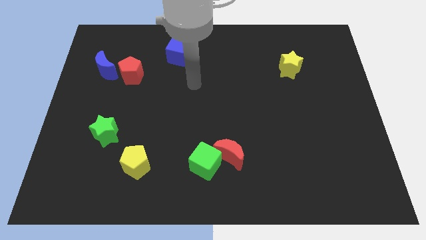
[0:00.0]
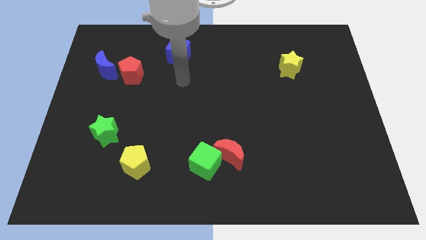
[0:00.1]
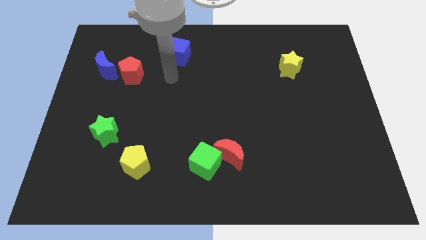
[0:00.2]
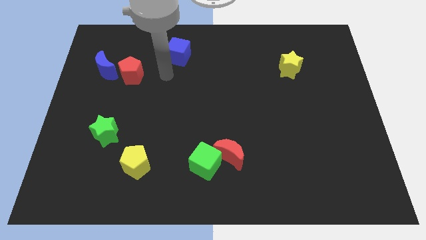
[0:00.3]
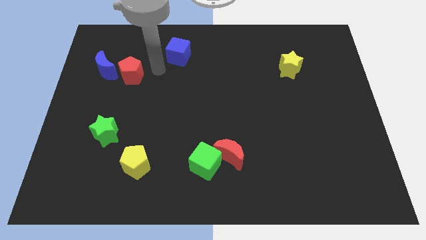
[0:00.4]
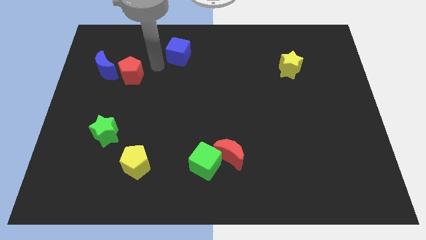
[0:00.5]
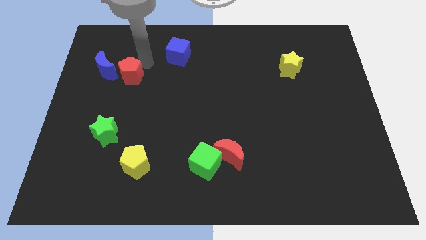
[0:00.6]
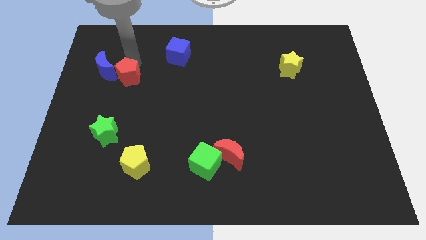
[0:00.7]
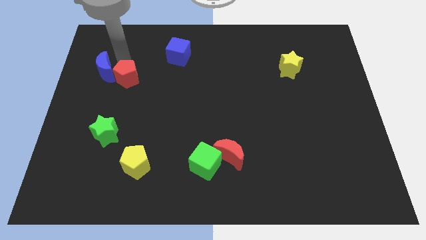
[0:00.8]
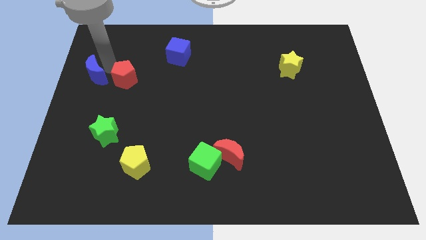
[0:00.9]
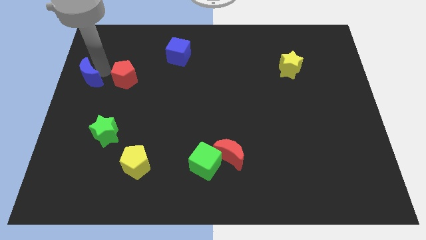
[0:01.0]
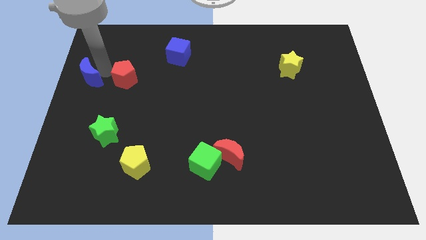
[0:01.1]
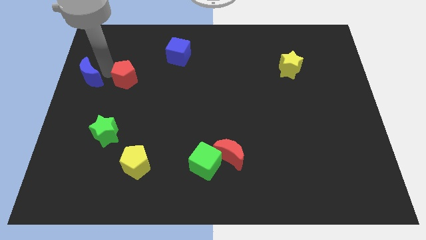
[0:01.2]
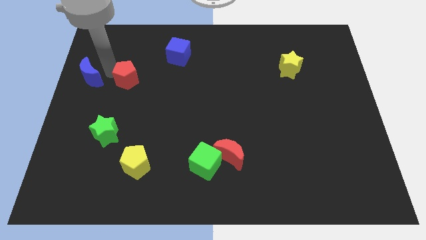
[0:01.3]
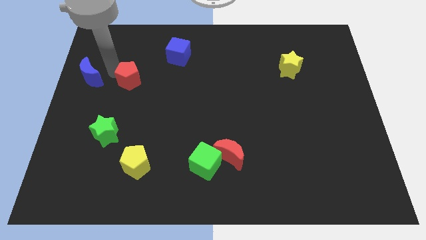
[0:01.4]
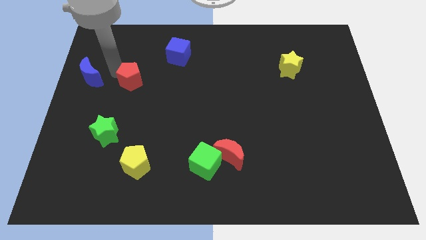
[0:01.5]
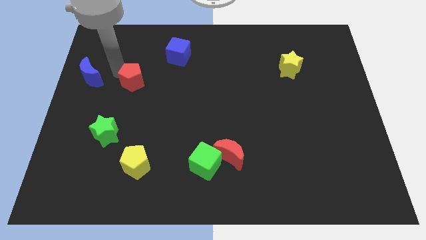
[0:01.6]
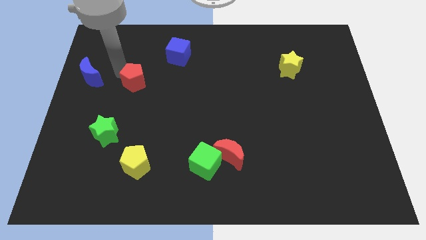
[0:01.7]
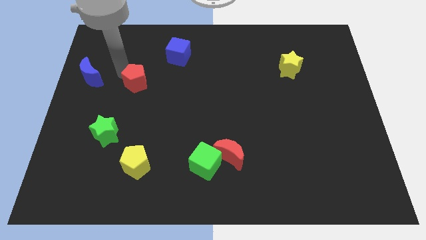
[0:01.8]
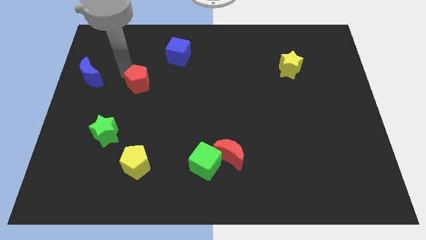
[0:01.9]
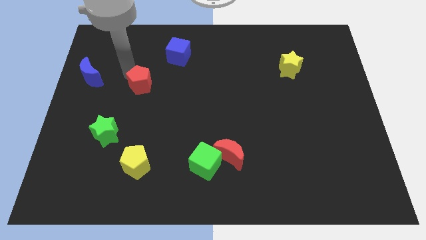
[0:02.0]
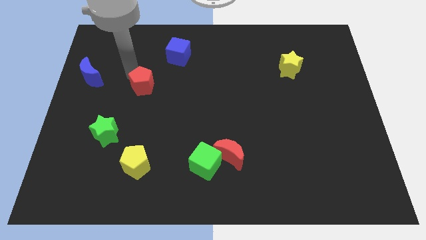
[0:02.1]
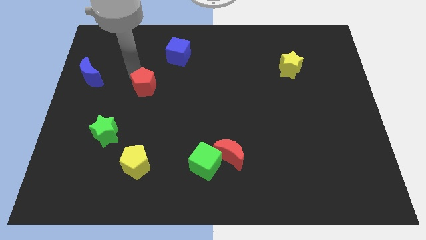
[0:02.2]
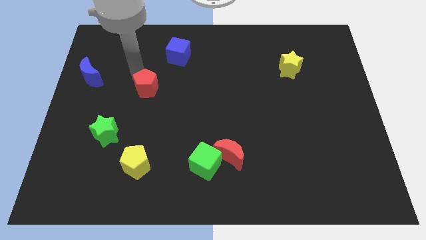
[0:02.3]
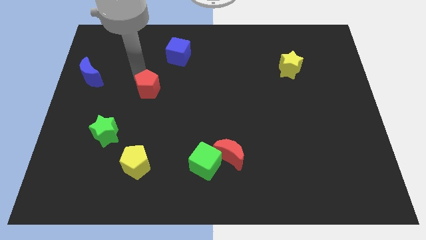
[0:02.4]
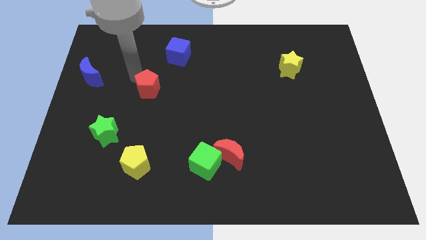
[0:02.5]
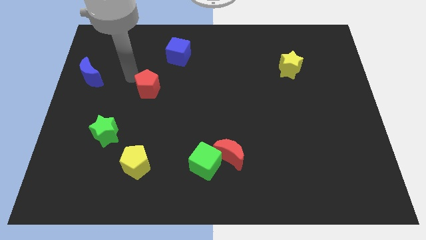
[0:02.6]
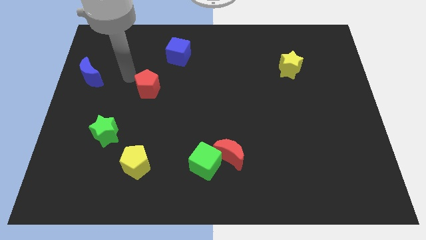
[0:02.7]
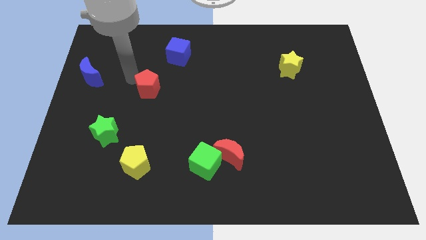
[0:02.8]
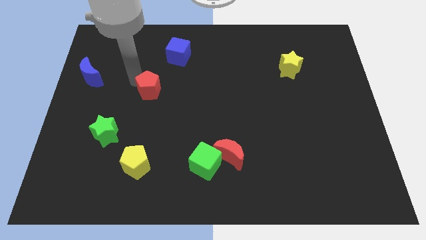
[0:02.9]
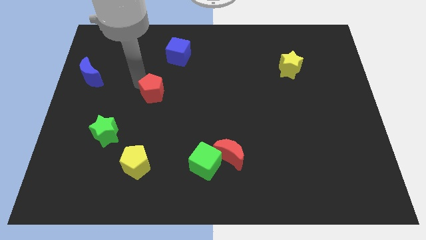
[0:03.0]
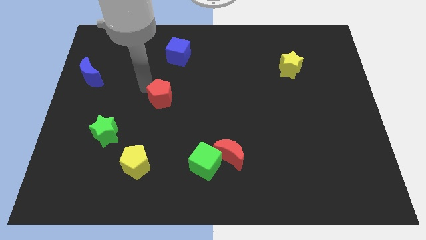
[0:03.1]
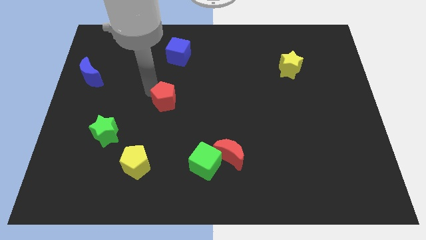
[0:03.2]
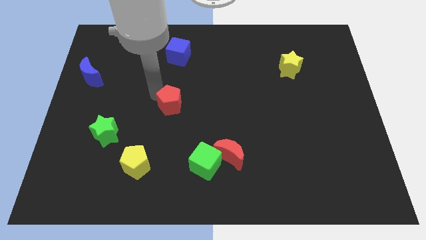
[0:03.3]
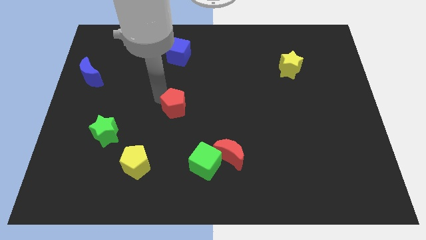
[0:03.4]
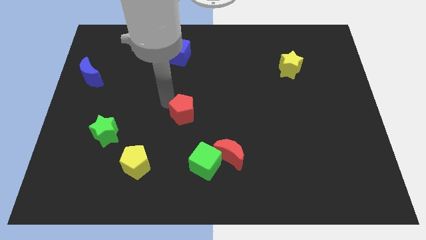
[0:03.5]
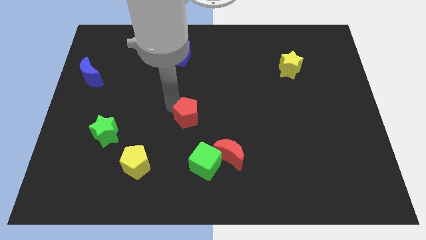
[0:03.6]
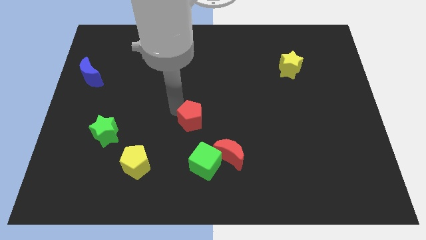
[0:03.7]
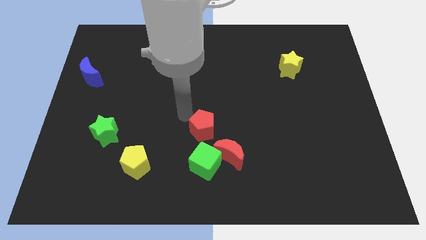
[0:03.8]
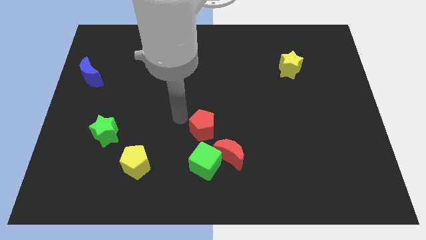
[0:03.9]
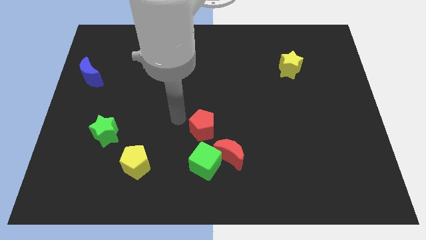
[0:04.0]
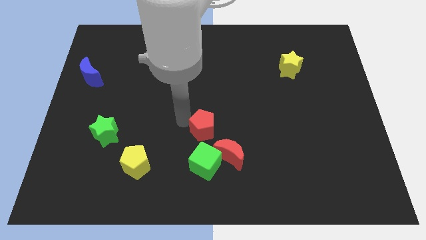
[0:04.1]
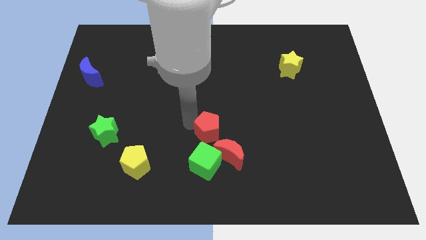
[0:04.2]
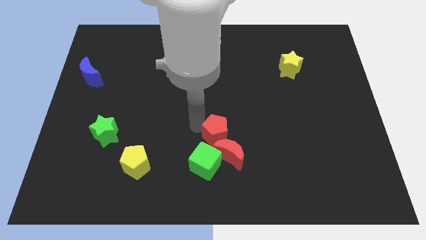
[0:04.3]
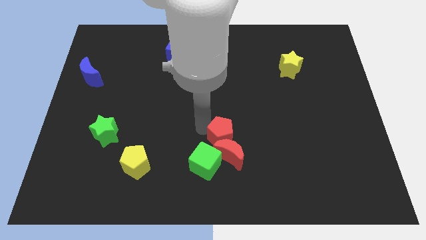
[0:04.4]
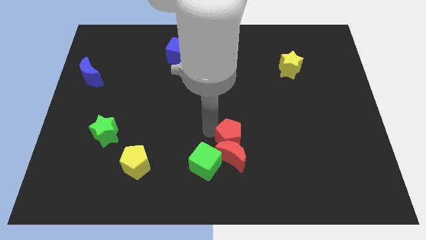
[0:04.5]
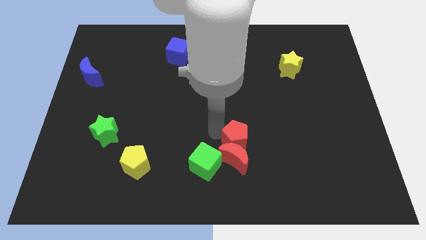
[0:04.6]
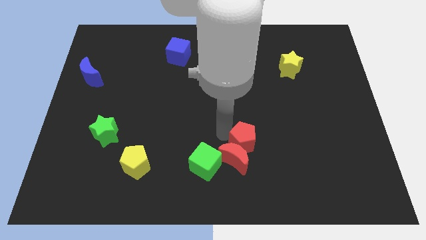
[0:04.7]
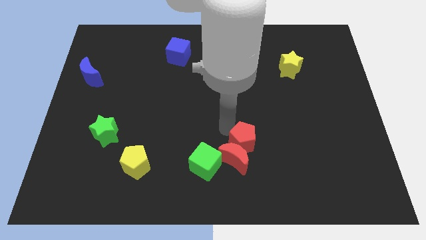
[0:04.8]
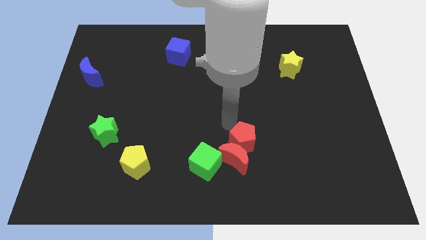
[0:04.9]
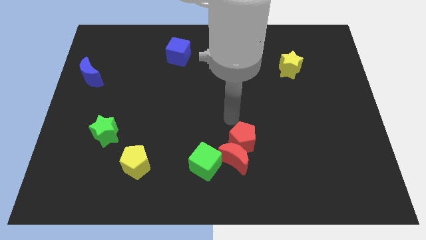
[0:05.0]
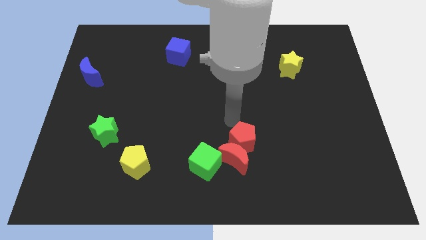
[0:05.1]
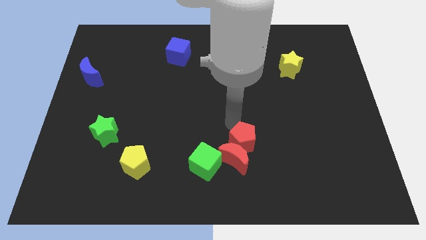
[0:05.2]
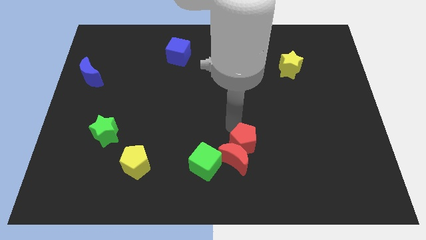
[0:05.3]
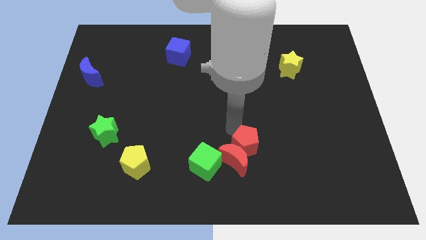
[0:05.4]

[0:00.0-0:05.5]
slide the red pentagon just right of the green cube

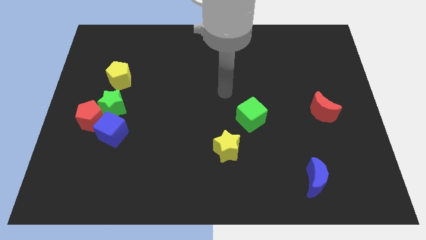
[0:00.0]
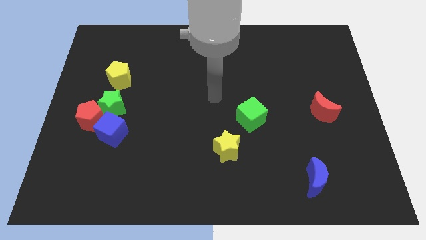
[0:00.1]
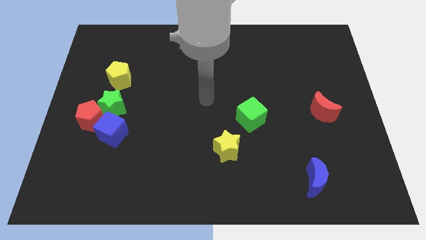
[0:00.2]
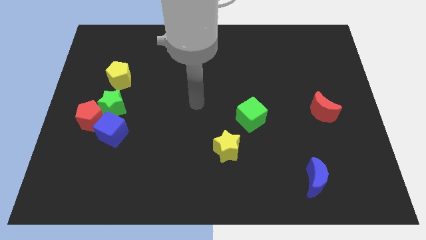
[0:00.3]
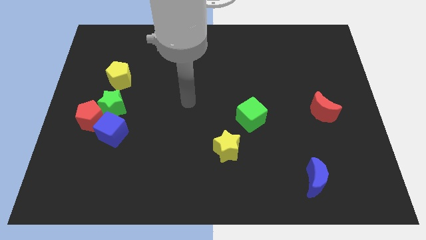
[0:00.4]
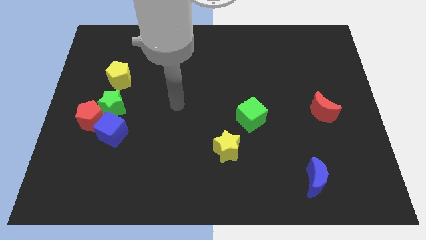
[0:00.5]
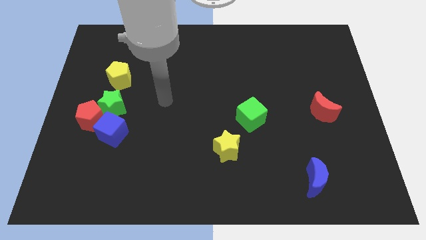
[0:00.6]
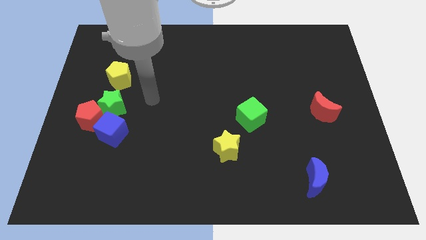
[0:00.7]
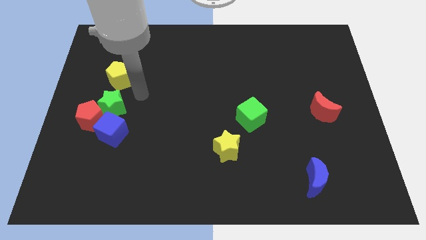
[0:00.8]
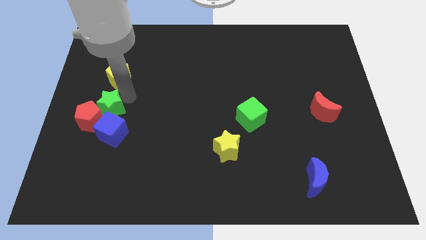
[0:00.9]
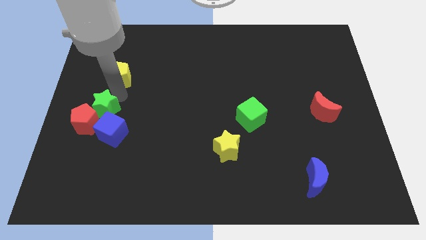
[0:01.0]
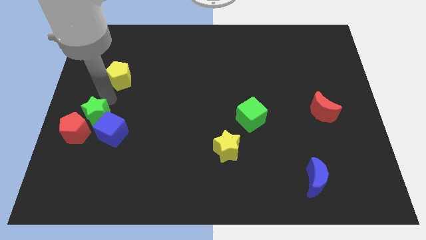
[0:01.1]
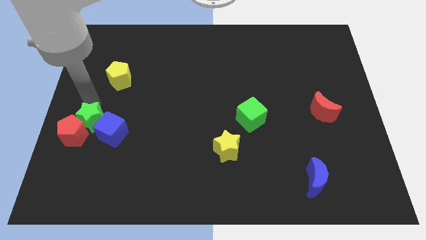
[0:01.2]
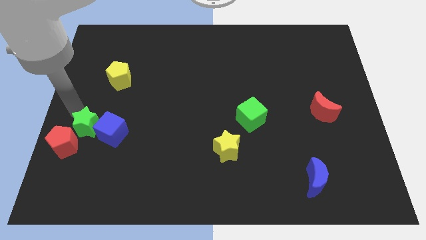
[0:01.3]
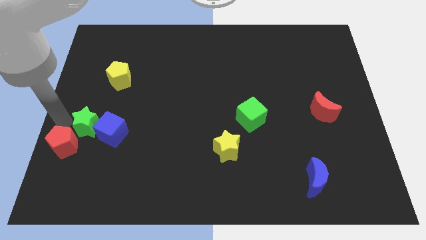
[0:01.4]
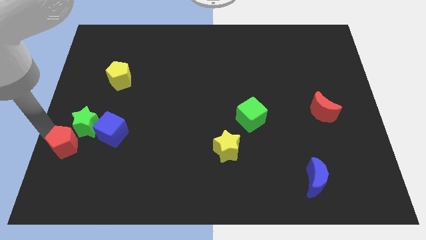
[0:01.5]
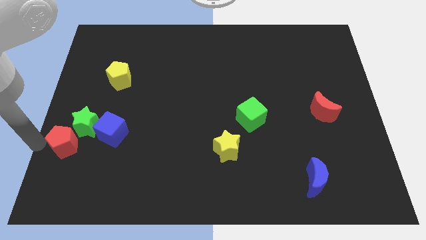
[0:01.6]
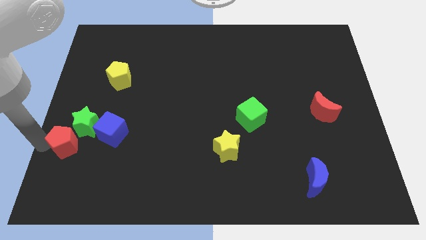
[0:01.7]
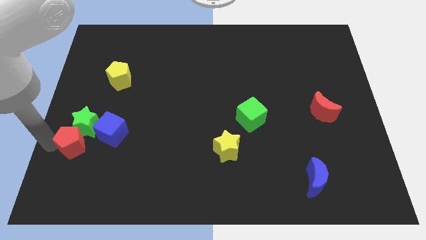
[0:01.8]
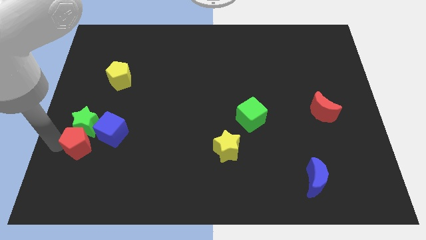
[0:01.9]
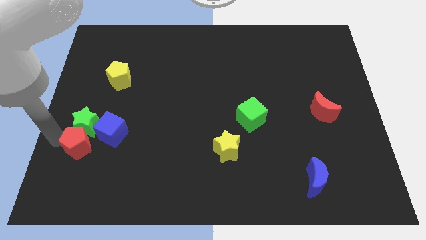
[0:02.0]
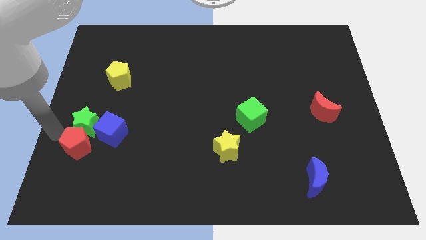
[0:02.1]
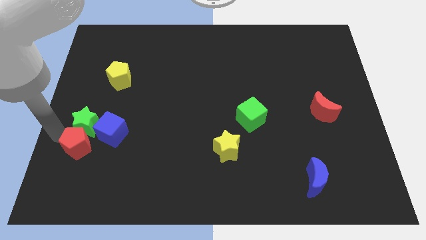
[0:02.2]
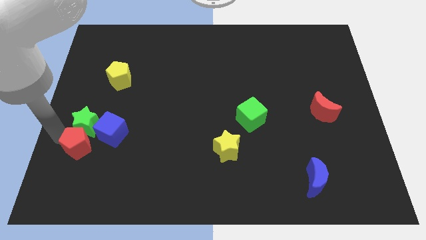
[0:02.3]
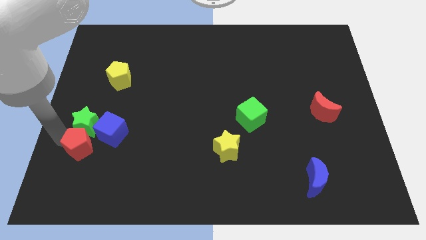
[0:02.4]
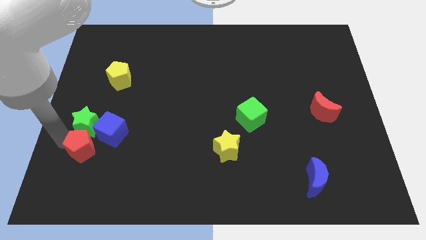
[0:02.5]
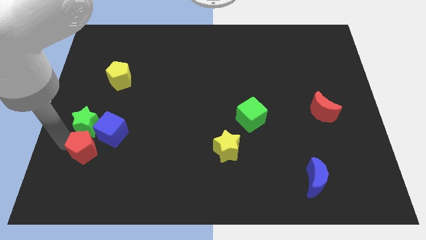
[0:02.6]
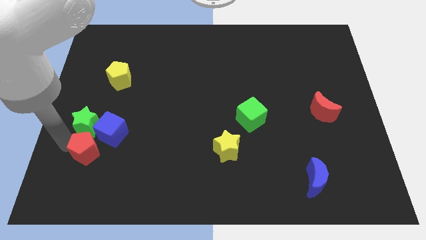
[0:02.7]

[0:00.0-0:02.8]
push the red pentagon to the bottom side of the blue cube
